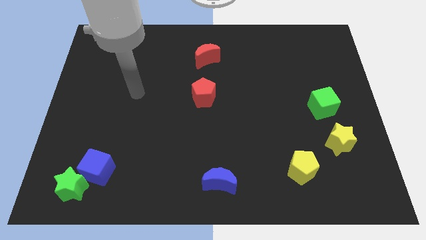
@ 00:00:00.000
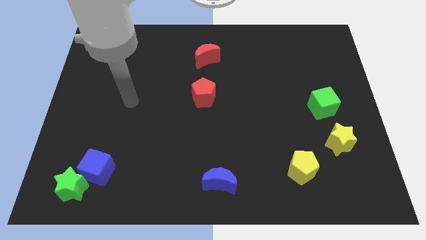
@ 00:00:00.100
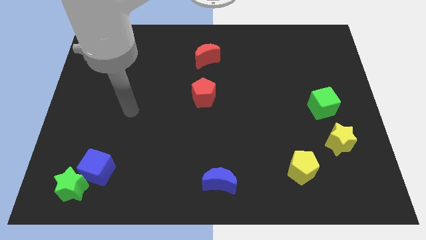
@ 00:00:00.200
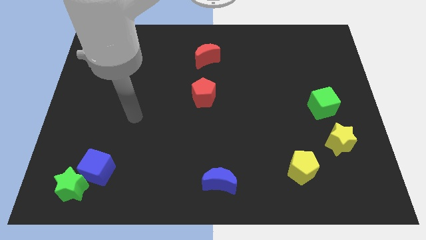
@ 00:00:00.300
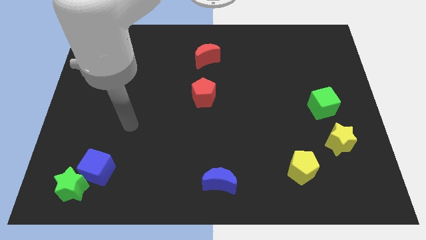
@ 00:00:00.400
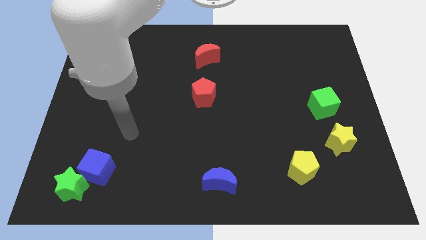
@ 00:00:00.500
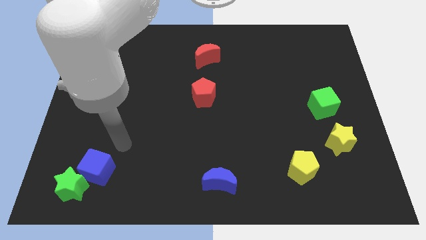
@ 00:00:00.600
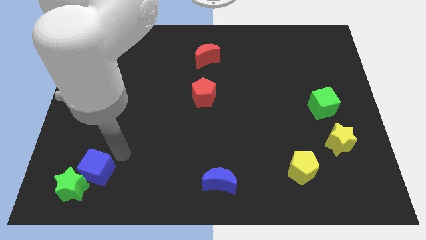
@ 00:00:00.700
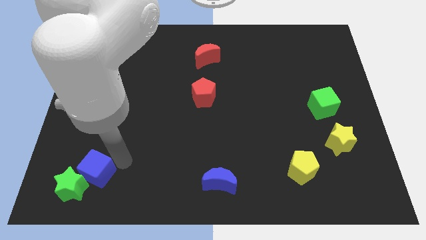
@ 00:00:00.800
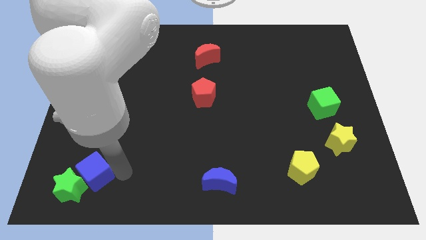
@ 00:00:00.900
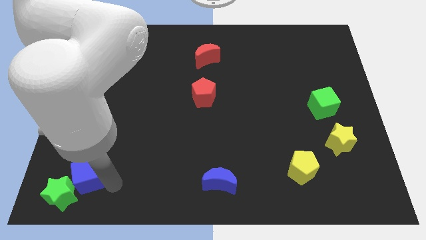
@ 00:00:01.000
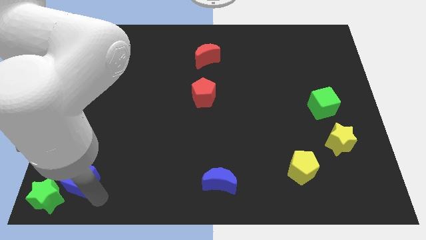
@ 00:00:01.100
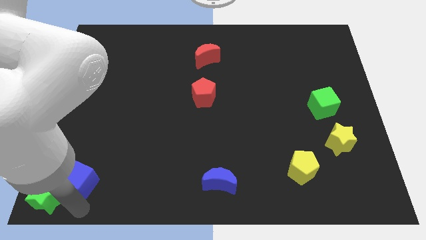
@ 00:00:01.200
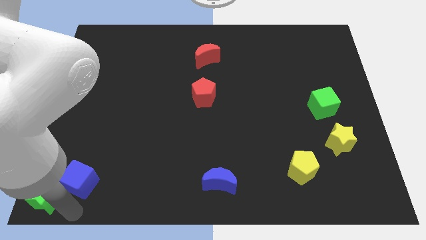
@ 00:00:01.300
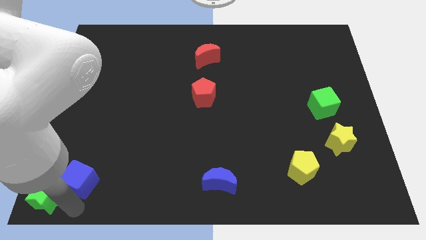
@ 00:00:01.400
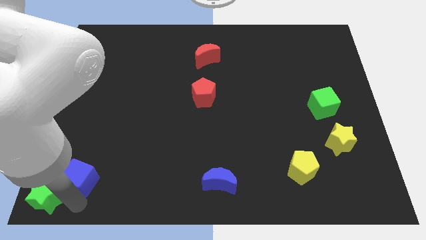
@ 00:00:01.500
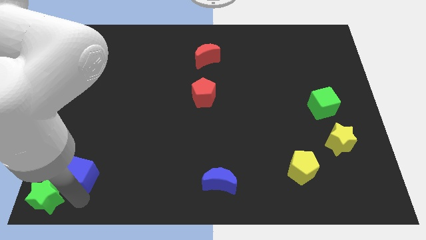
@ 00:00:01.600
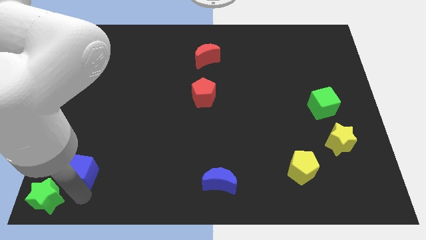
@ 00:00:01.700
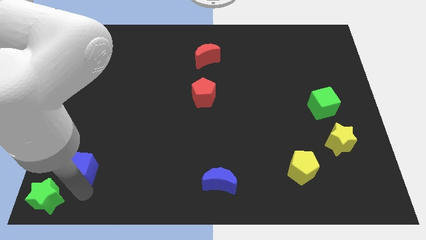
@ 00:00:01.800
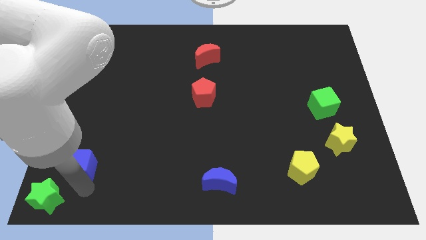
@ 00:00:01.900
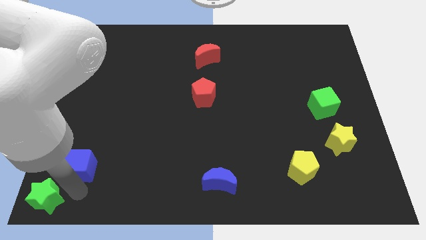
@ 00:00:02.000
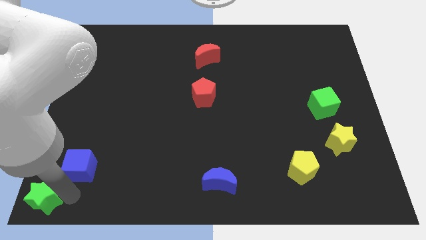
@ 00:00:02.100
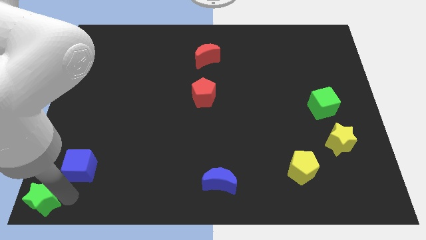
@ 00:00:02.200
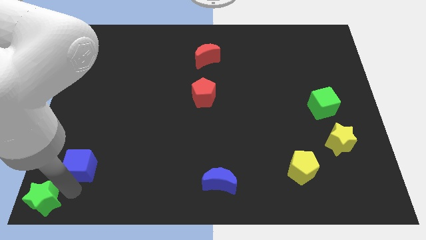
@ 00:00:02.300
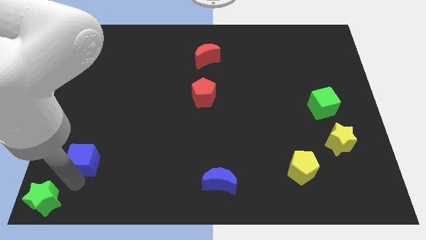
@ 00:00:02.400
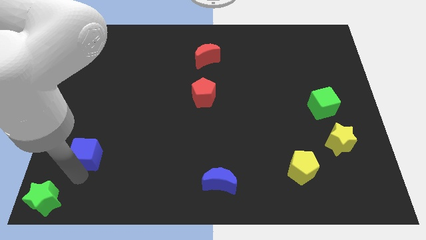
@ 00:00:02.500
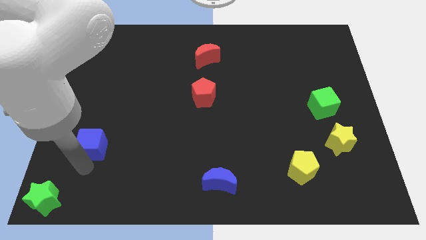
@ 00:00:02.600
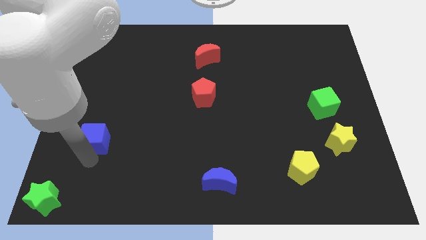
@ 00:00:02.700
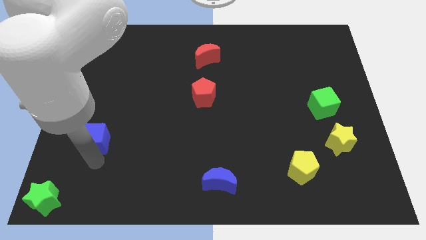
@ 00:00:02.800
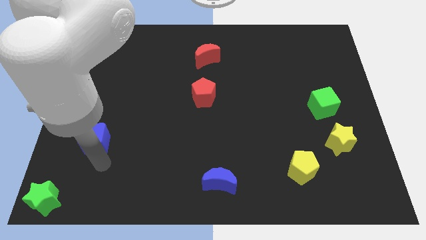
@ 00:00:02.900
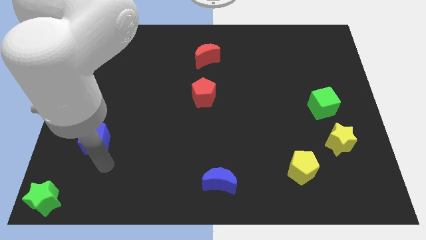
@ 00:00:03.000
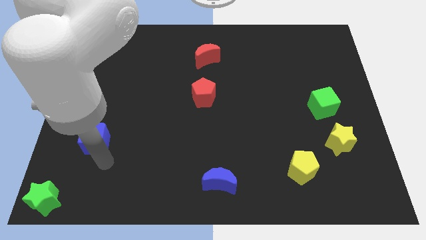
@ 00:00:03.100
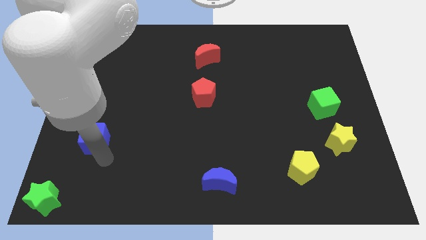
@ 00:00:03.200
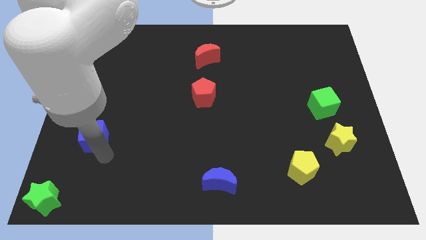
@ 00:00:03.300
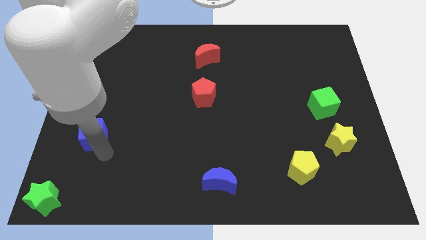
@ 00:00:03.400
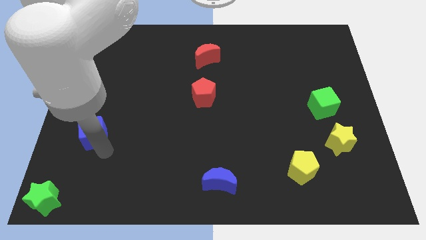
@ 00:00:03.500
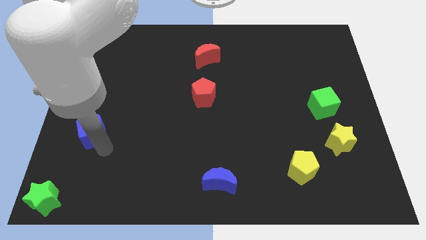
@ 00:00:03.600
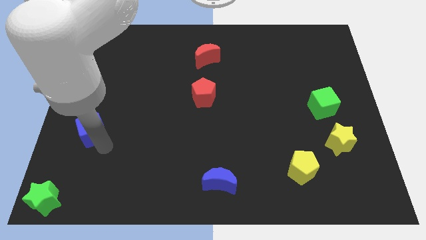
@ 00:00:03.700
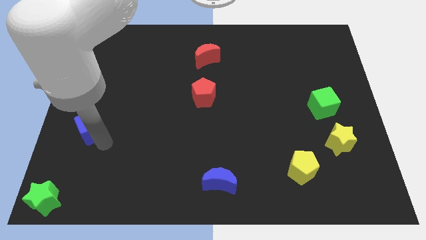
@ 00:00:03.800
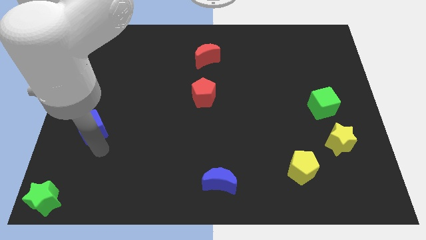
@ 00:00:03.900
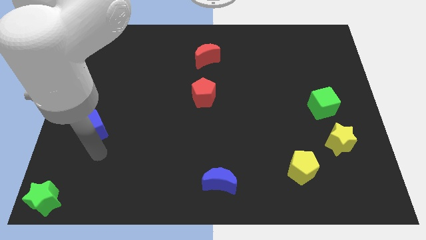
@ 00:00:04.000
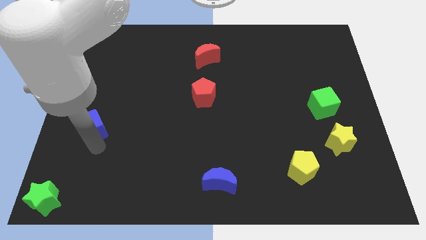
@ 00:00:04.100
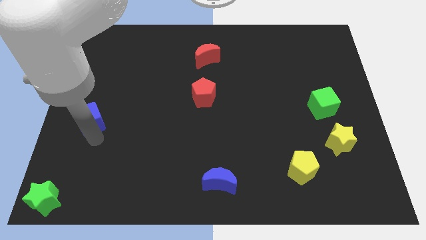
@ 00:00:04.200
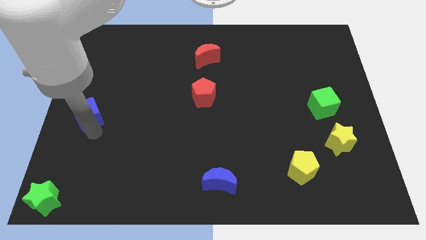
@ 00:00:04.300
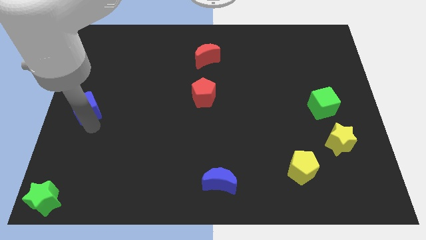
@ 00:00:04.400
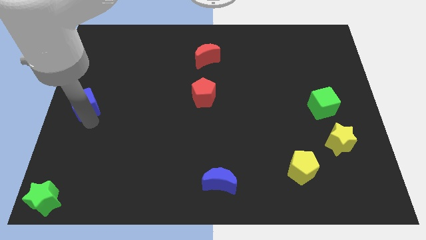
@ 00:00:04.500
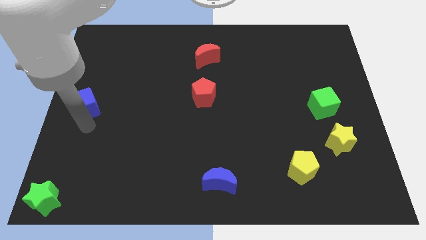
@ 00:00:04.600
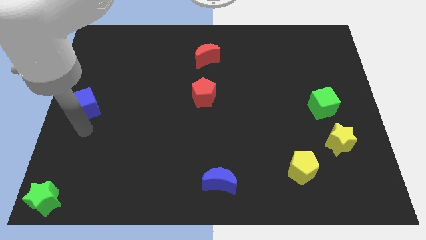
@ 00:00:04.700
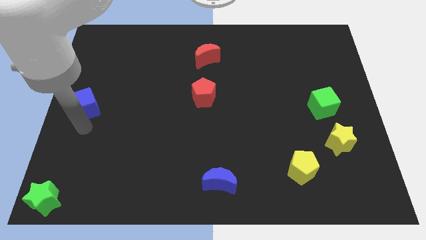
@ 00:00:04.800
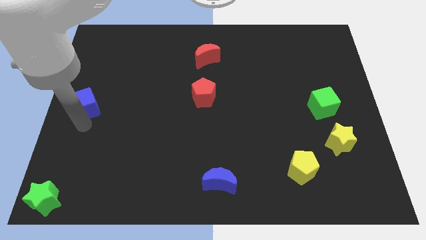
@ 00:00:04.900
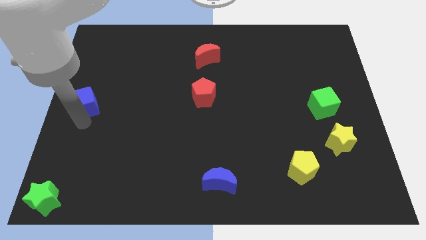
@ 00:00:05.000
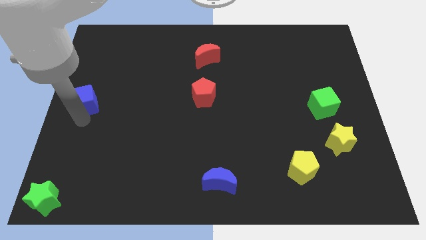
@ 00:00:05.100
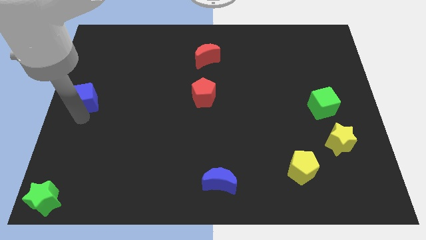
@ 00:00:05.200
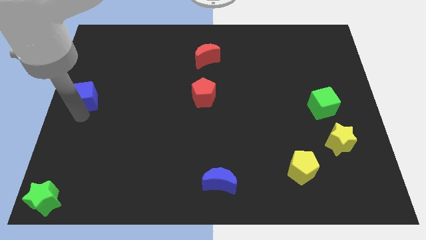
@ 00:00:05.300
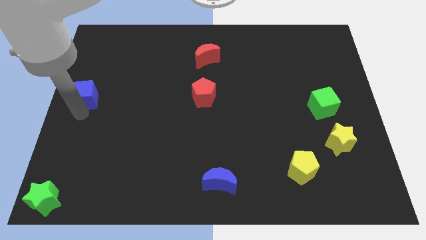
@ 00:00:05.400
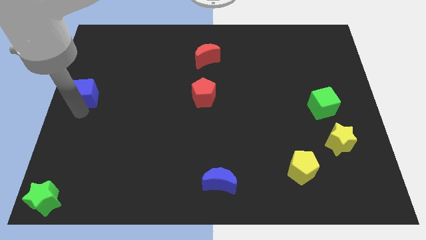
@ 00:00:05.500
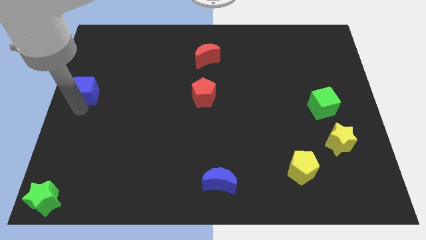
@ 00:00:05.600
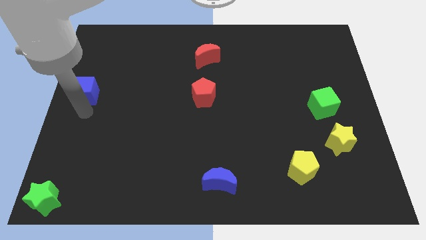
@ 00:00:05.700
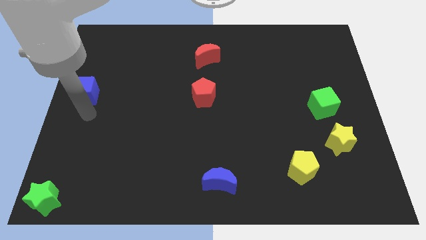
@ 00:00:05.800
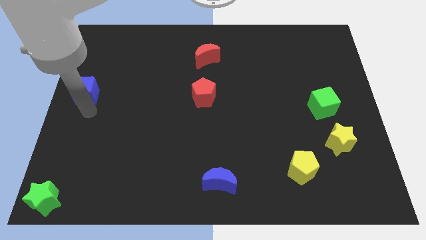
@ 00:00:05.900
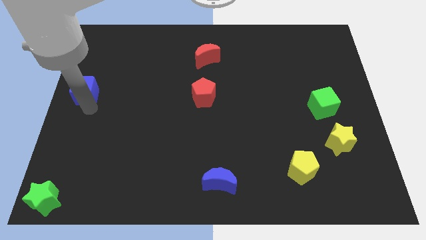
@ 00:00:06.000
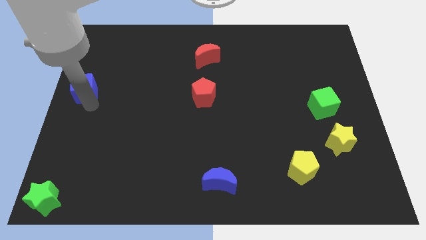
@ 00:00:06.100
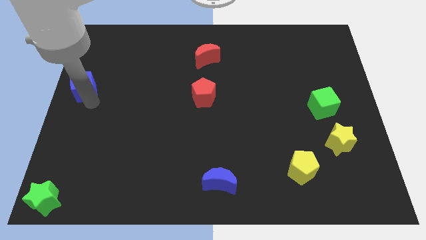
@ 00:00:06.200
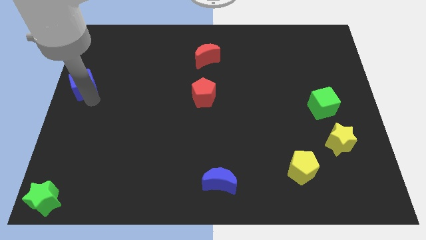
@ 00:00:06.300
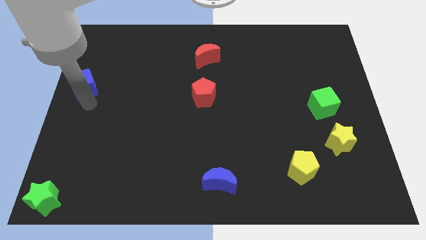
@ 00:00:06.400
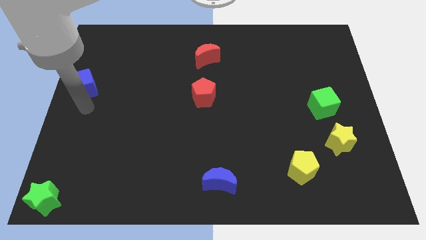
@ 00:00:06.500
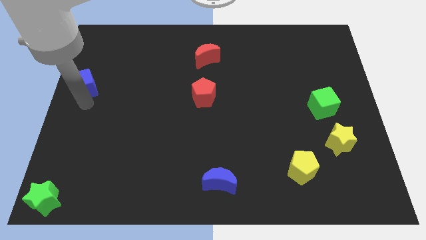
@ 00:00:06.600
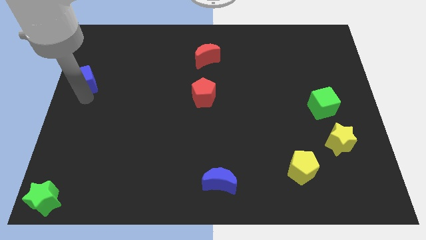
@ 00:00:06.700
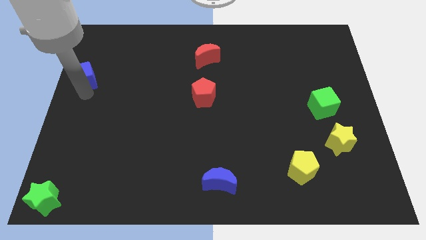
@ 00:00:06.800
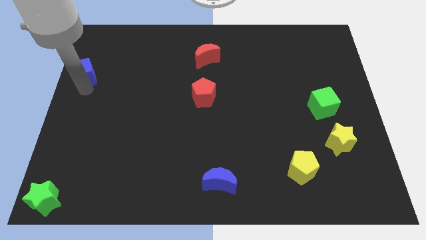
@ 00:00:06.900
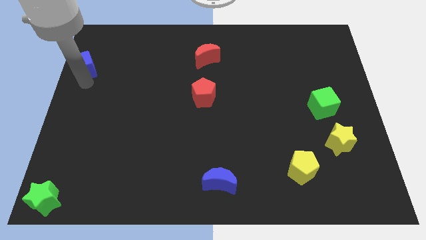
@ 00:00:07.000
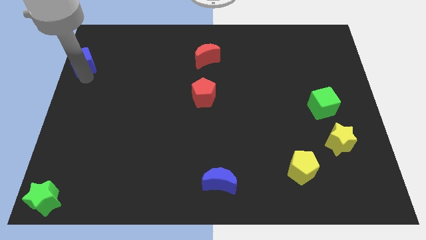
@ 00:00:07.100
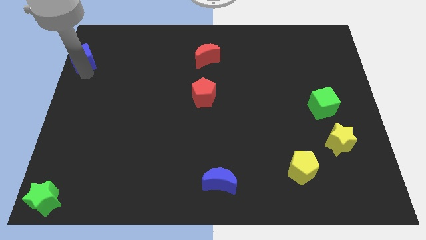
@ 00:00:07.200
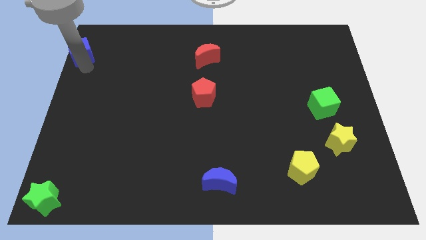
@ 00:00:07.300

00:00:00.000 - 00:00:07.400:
put the blue cube to the top left corner
